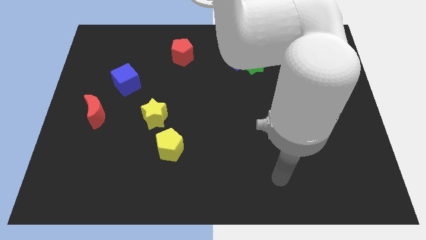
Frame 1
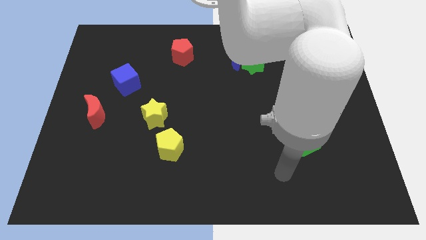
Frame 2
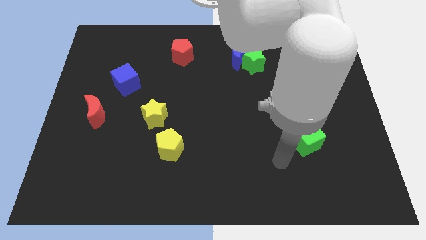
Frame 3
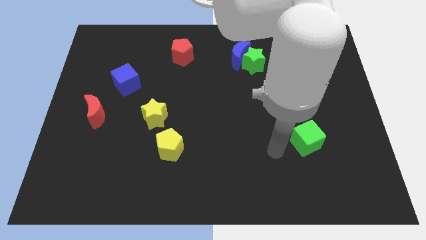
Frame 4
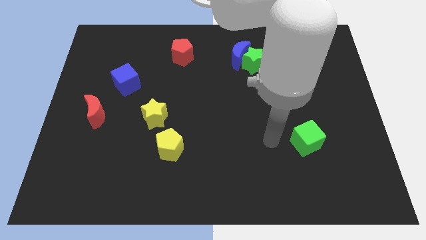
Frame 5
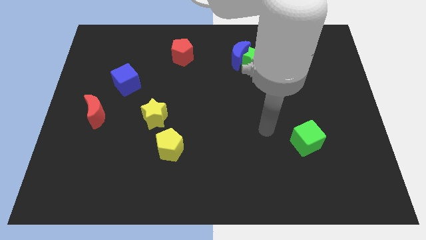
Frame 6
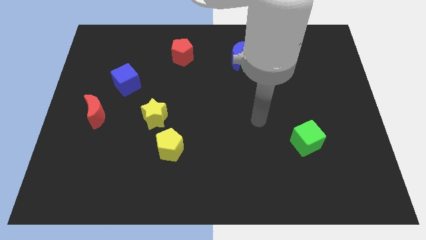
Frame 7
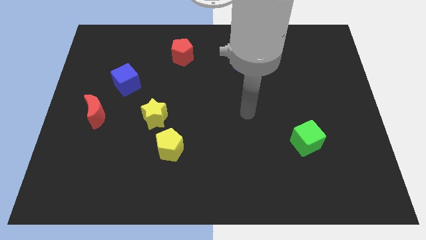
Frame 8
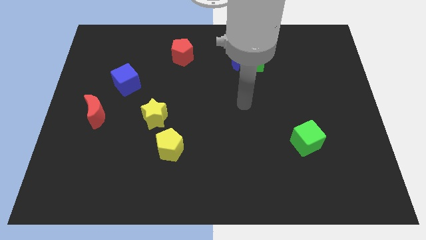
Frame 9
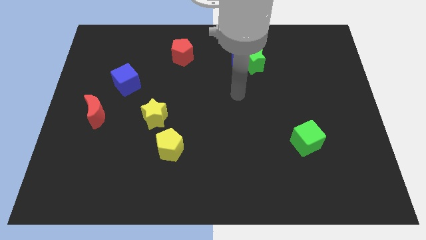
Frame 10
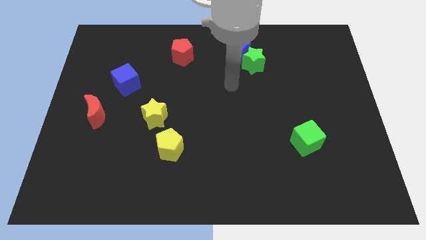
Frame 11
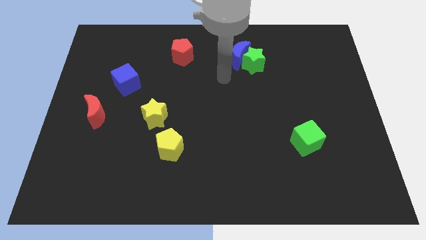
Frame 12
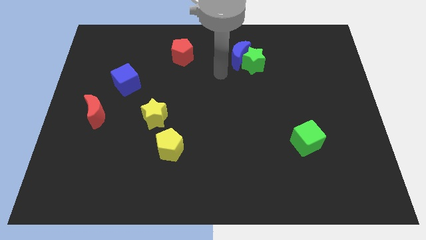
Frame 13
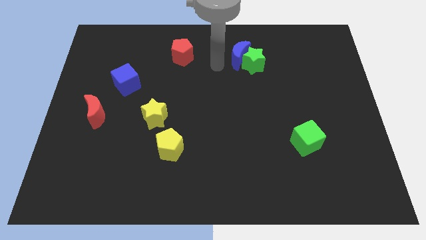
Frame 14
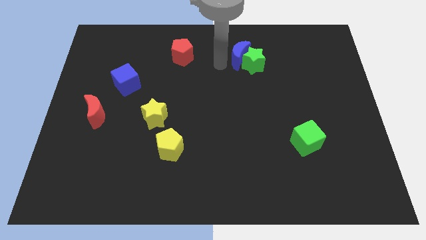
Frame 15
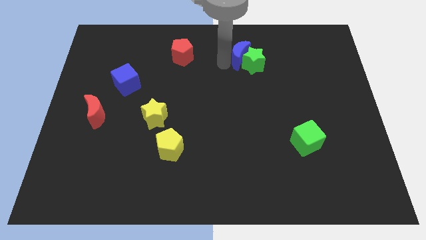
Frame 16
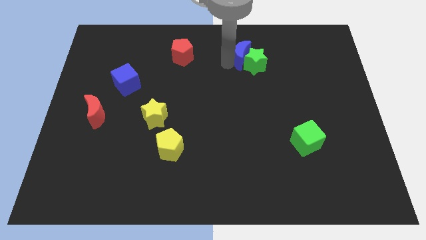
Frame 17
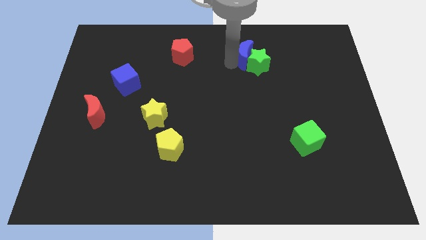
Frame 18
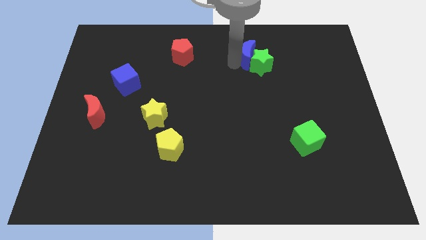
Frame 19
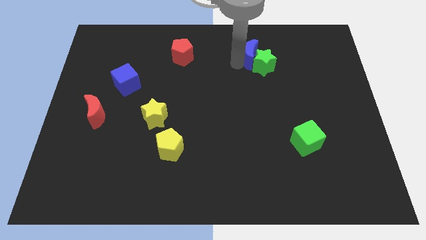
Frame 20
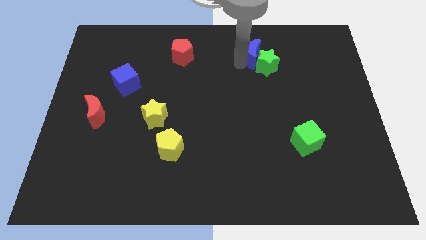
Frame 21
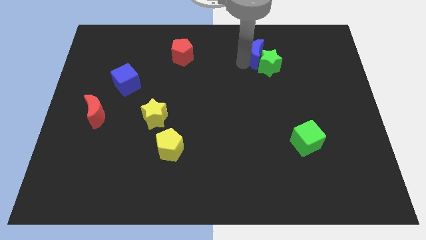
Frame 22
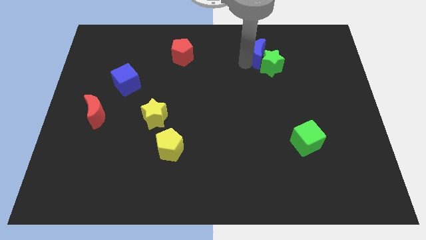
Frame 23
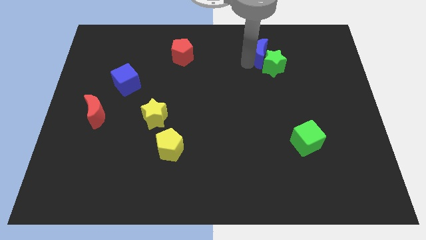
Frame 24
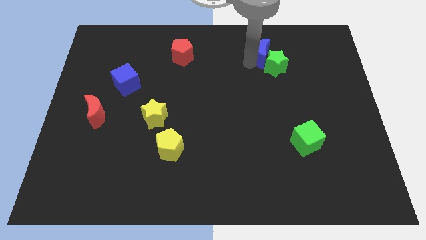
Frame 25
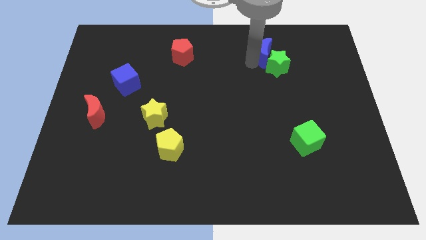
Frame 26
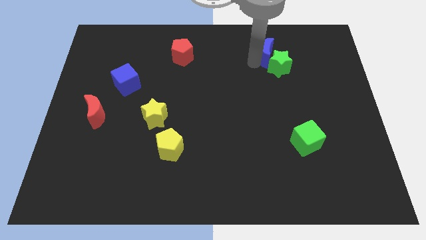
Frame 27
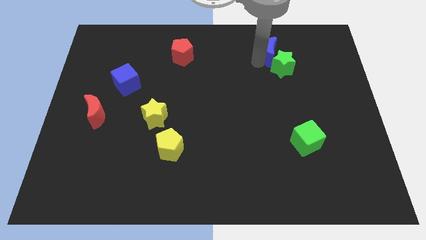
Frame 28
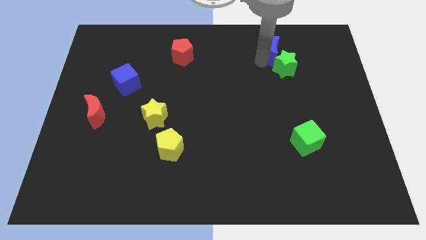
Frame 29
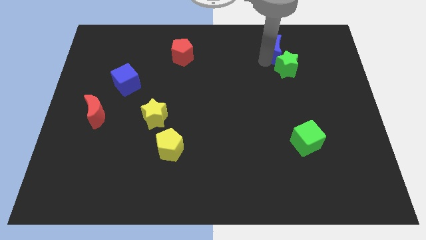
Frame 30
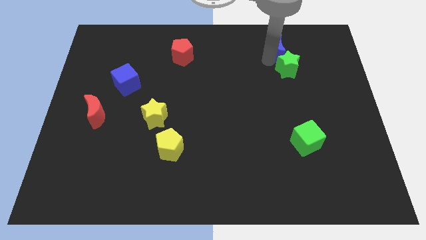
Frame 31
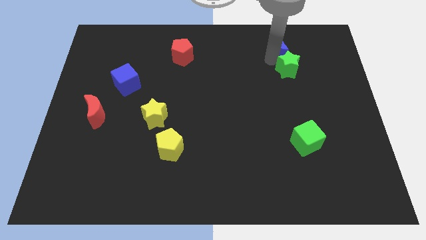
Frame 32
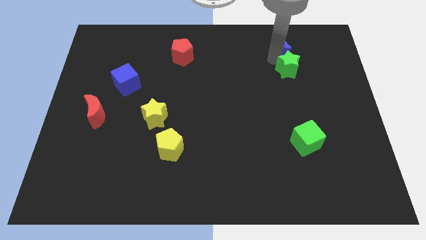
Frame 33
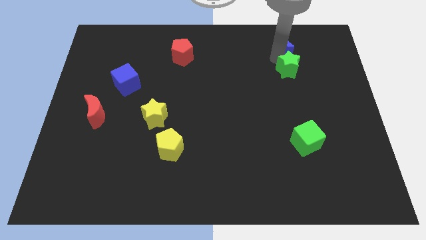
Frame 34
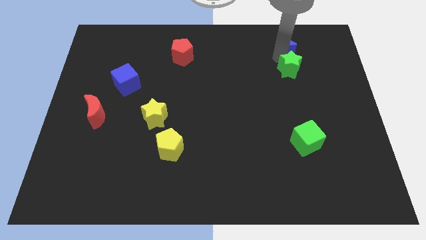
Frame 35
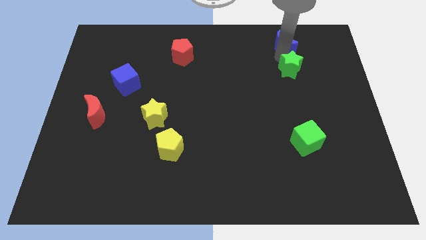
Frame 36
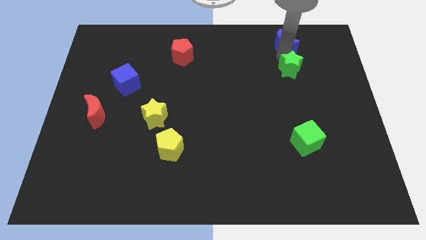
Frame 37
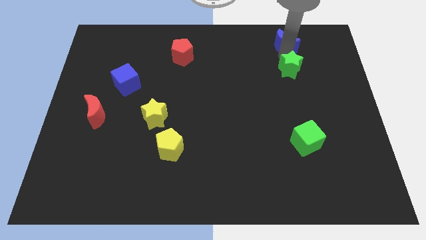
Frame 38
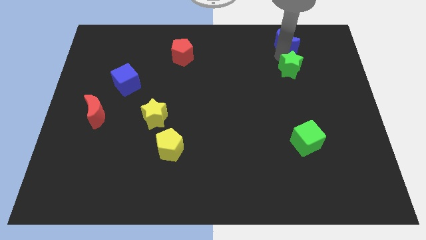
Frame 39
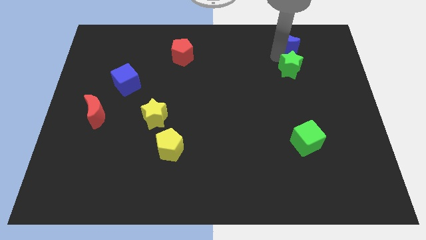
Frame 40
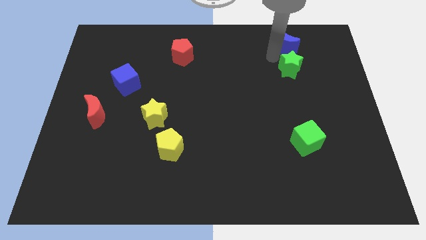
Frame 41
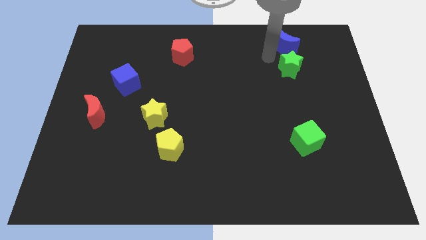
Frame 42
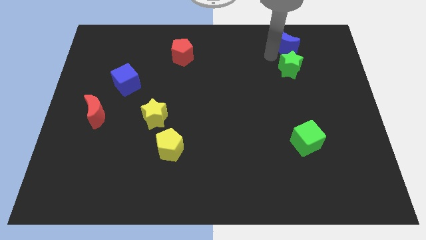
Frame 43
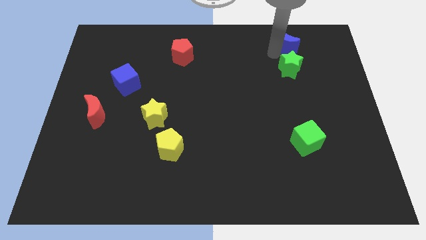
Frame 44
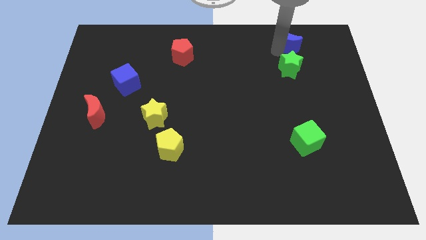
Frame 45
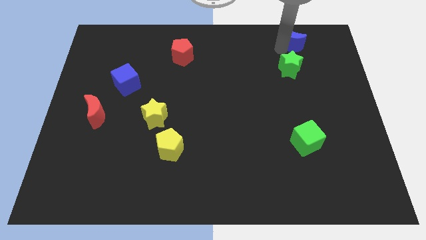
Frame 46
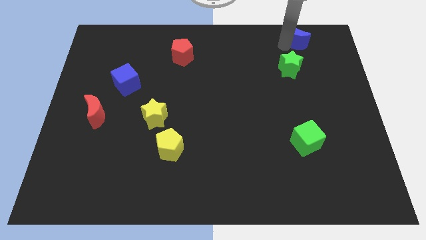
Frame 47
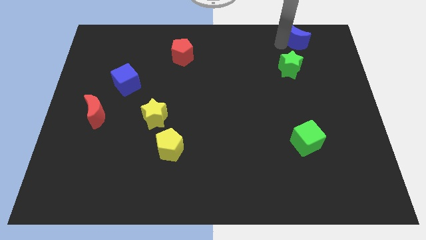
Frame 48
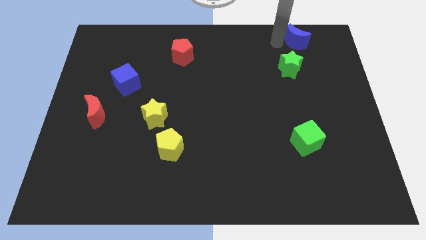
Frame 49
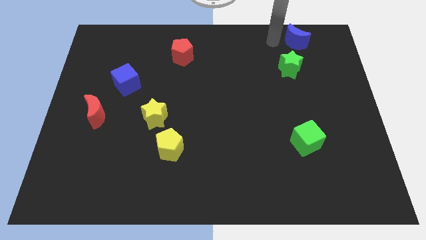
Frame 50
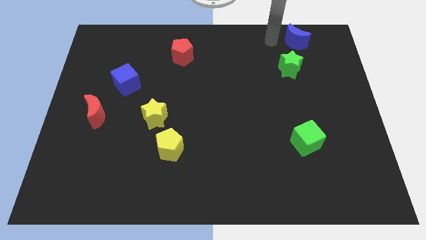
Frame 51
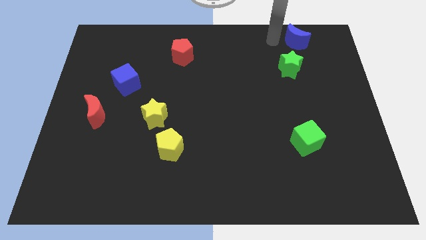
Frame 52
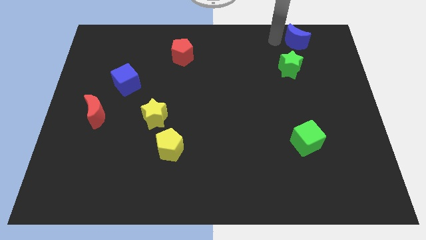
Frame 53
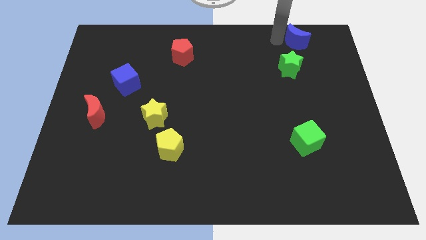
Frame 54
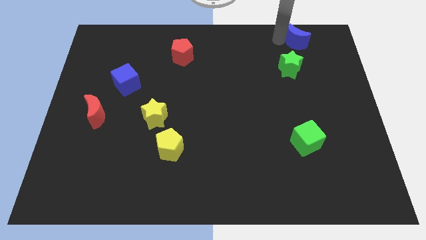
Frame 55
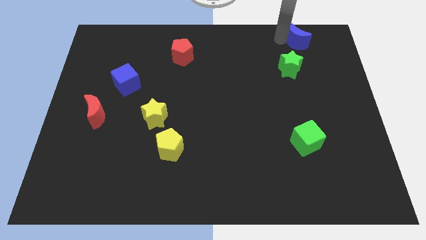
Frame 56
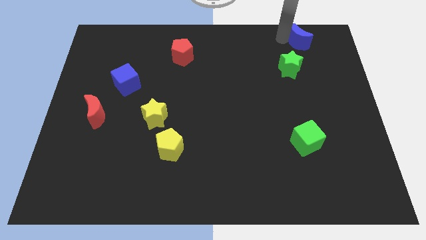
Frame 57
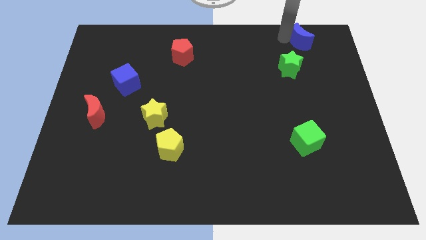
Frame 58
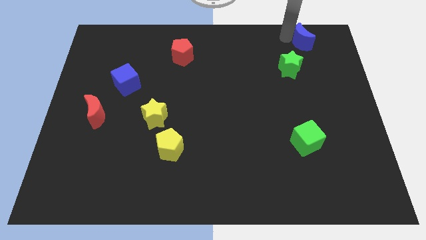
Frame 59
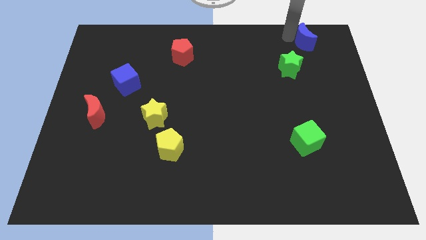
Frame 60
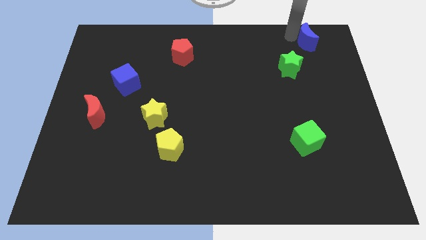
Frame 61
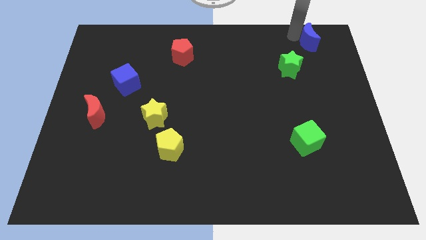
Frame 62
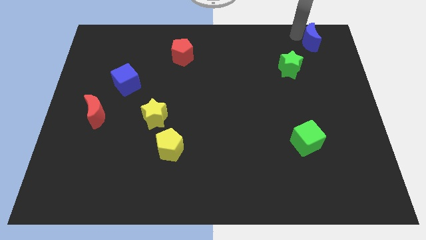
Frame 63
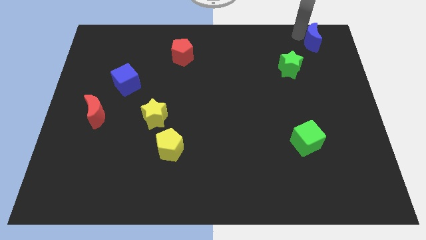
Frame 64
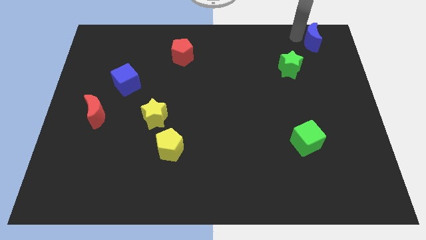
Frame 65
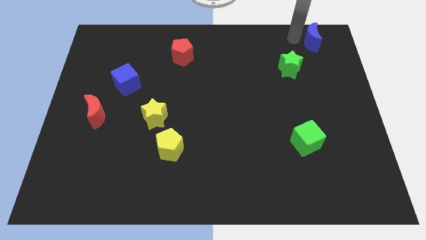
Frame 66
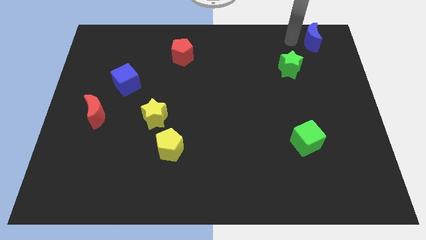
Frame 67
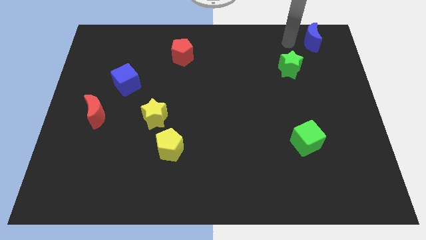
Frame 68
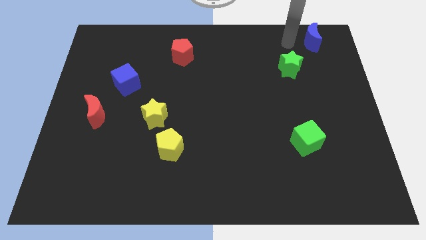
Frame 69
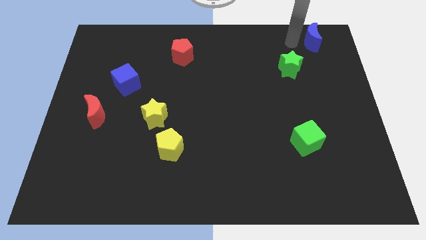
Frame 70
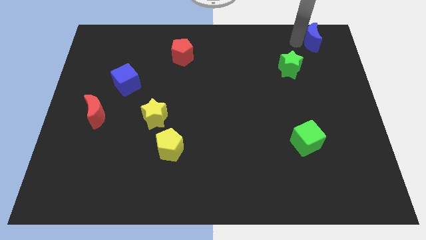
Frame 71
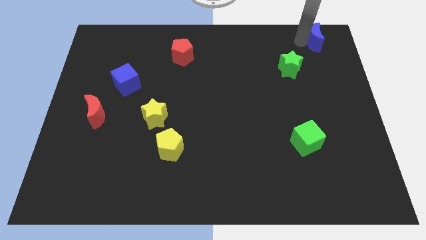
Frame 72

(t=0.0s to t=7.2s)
push the blue moon to the top right
